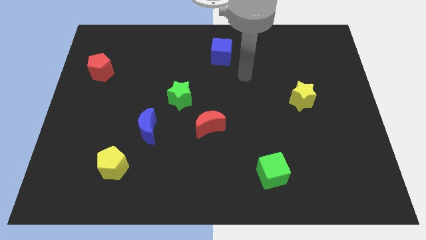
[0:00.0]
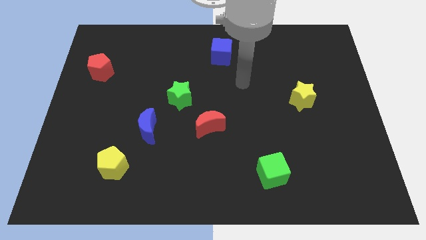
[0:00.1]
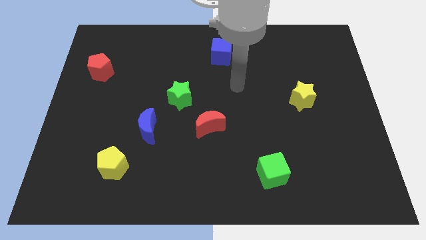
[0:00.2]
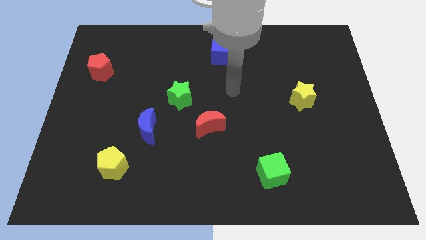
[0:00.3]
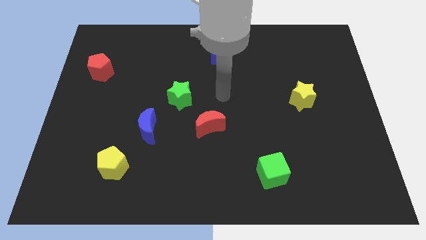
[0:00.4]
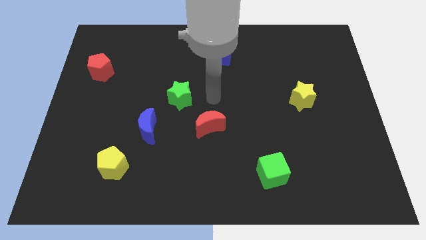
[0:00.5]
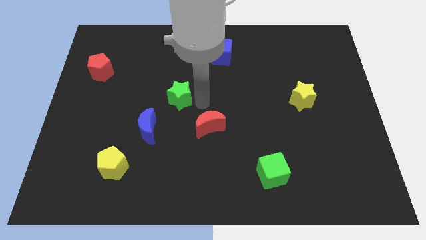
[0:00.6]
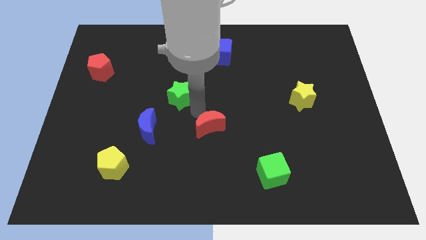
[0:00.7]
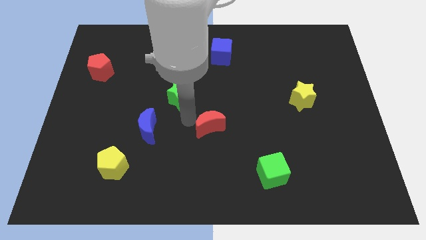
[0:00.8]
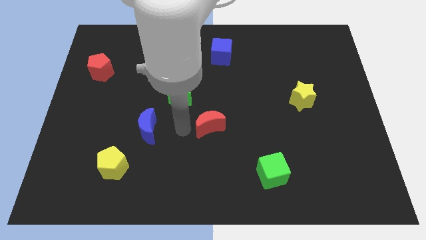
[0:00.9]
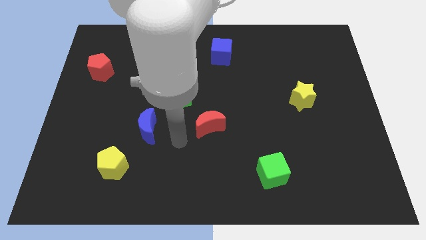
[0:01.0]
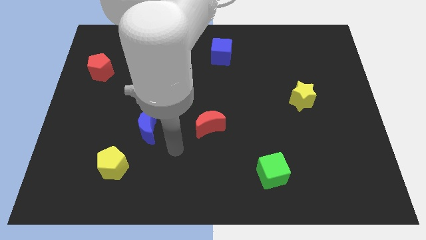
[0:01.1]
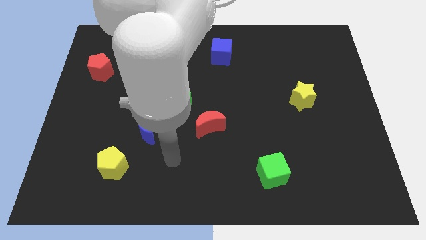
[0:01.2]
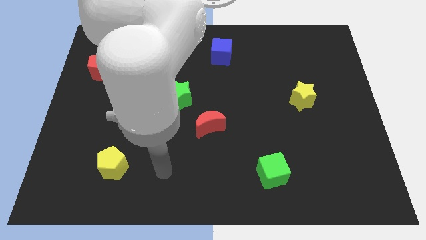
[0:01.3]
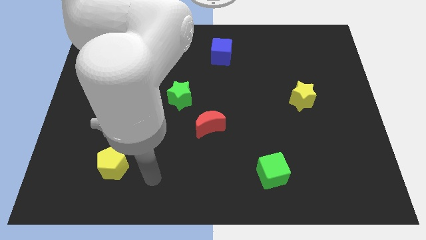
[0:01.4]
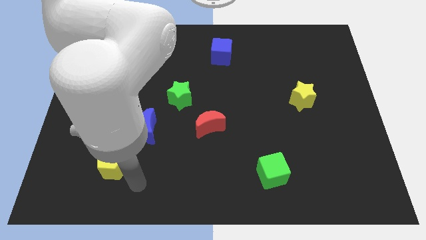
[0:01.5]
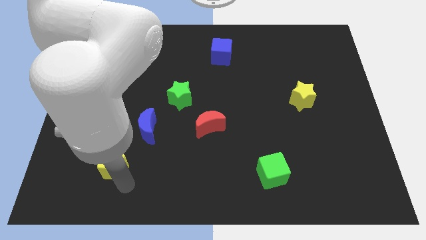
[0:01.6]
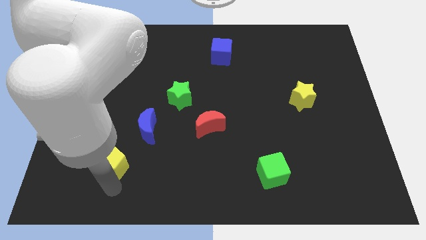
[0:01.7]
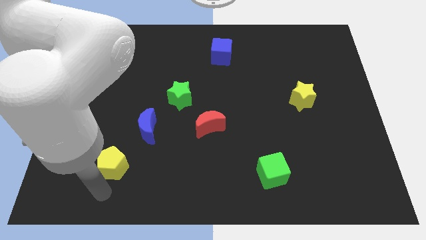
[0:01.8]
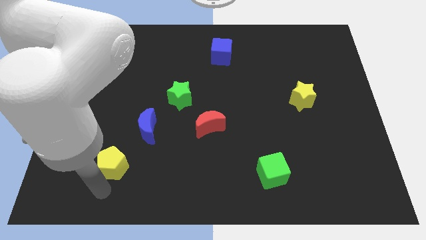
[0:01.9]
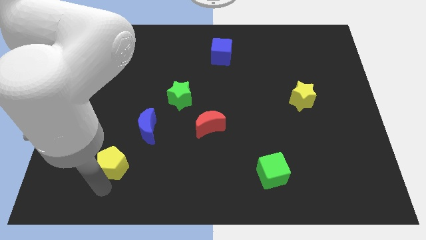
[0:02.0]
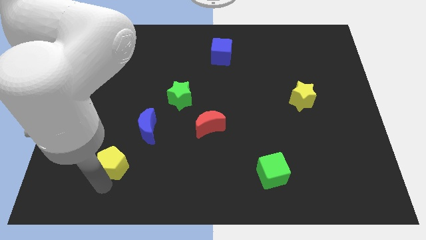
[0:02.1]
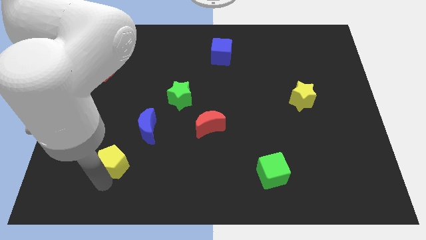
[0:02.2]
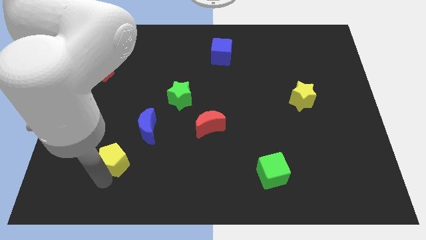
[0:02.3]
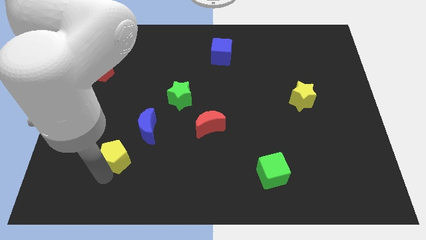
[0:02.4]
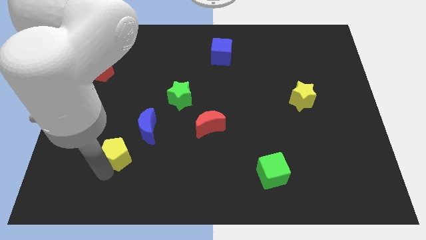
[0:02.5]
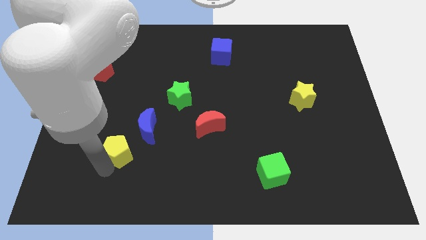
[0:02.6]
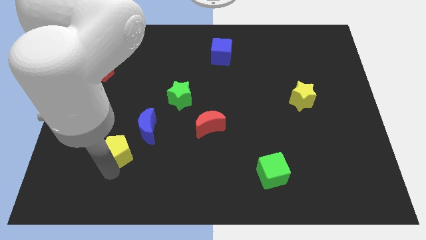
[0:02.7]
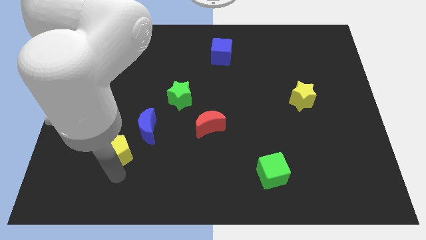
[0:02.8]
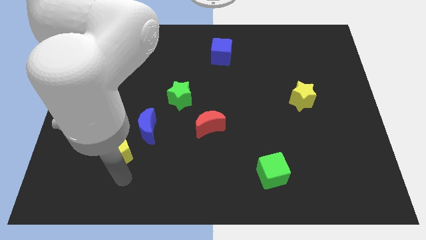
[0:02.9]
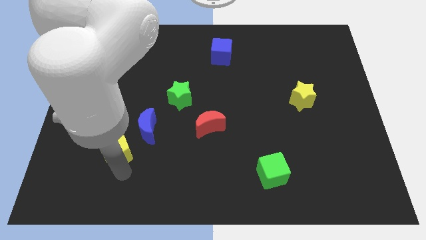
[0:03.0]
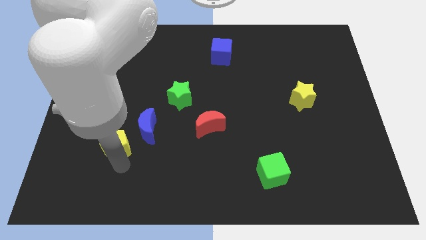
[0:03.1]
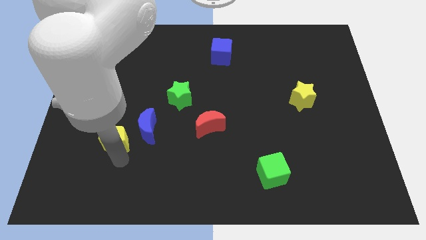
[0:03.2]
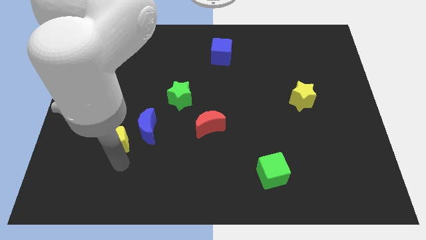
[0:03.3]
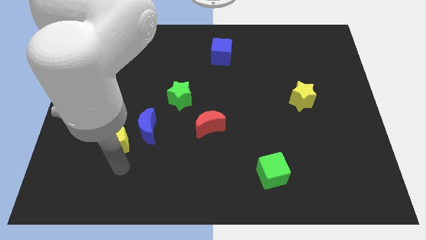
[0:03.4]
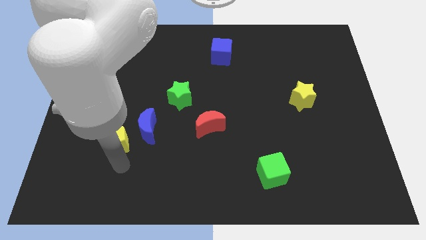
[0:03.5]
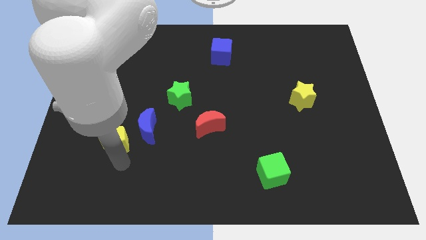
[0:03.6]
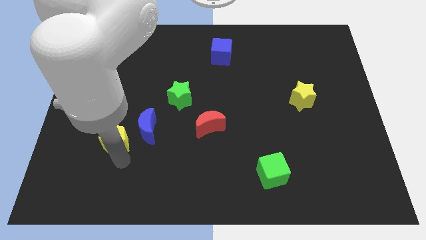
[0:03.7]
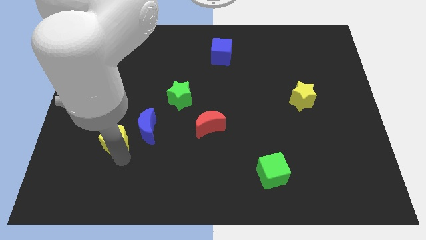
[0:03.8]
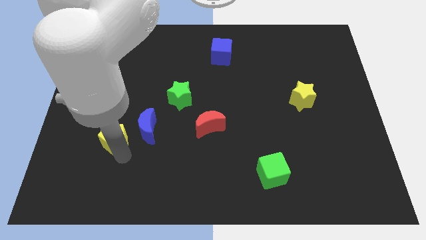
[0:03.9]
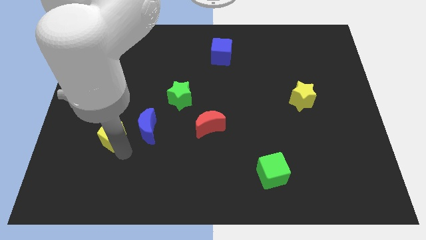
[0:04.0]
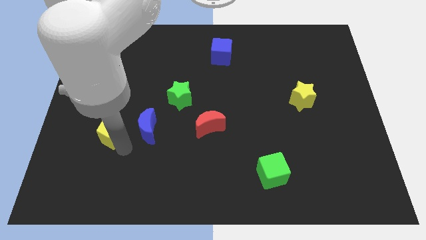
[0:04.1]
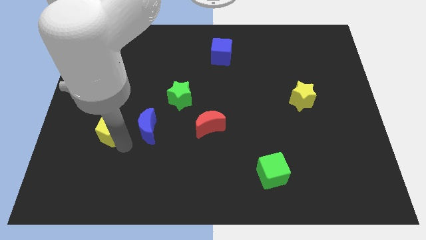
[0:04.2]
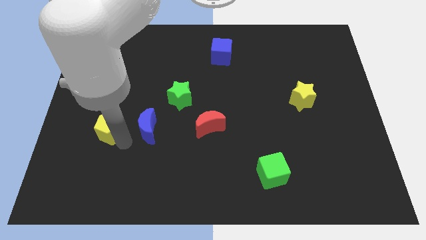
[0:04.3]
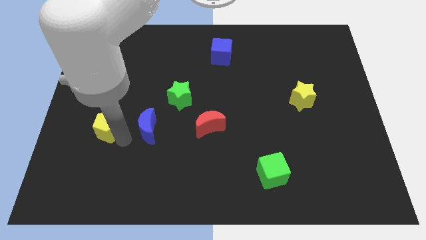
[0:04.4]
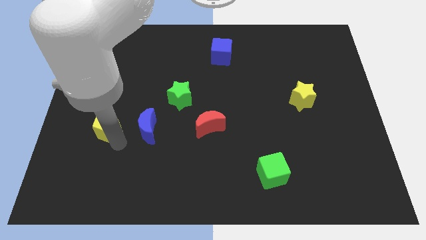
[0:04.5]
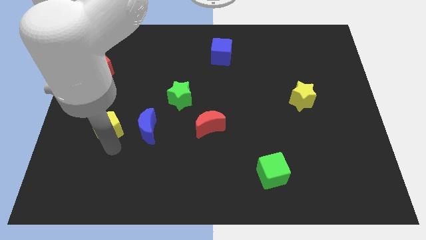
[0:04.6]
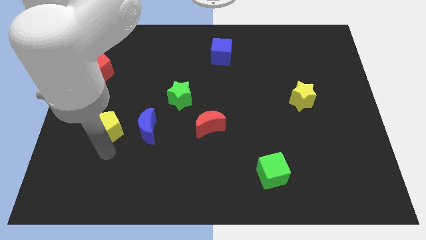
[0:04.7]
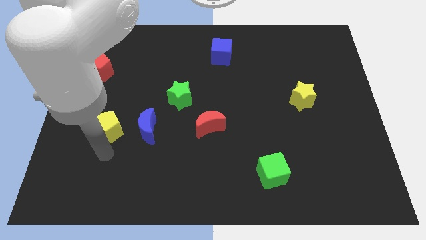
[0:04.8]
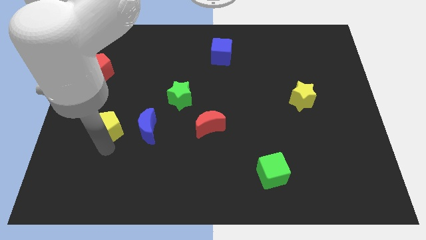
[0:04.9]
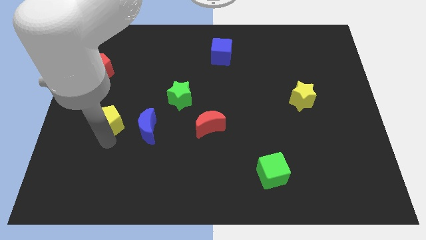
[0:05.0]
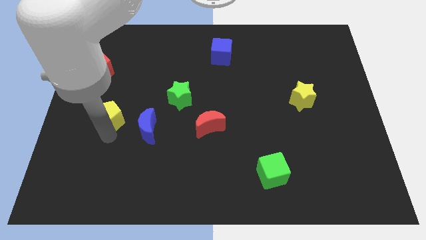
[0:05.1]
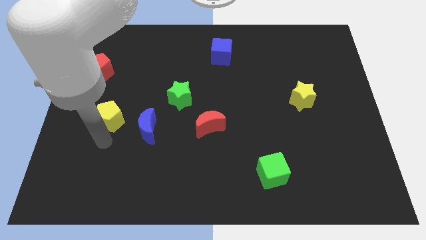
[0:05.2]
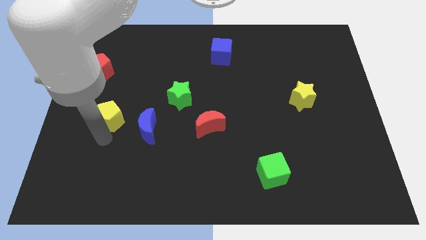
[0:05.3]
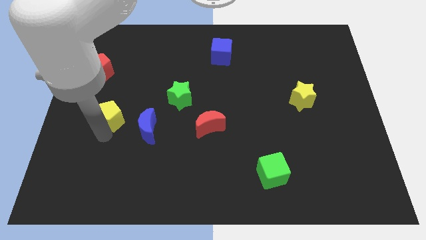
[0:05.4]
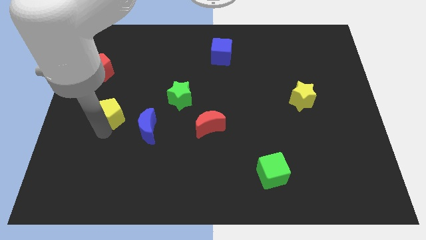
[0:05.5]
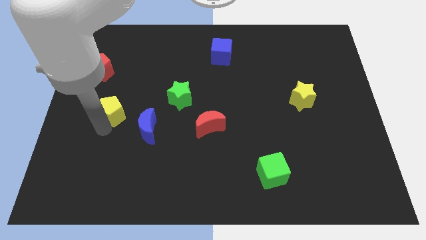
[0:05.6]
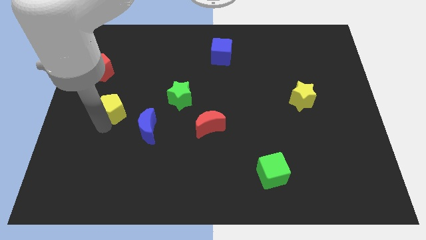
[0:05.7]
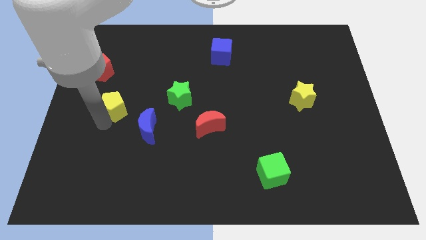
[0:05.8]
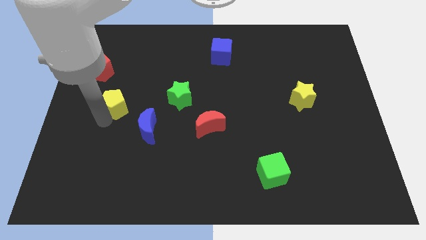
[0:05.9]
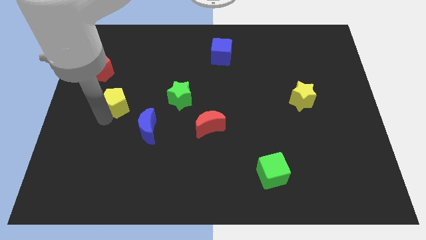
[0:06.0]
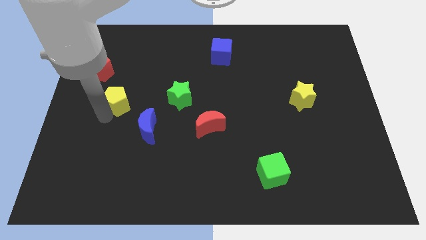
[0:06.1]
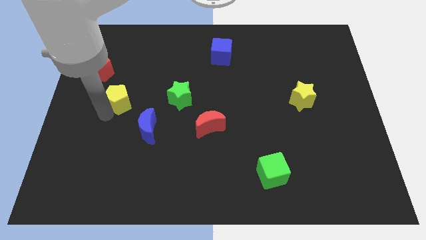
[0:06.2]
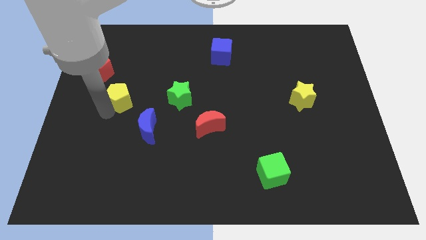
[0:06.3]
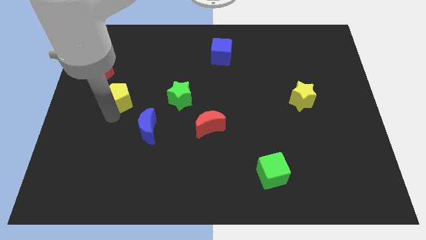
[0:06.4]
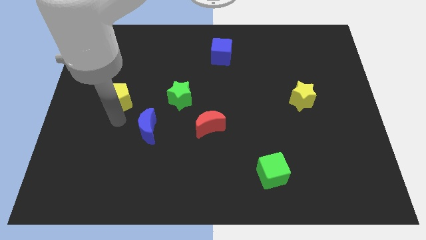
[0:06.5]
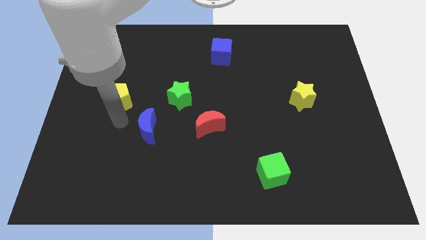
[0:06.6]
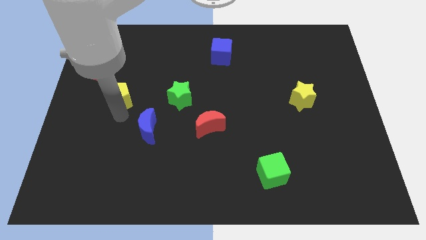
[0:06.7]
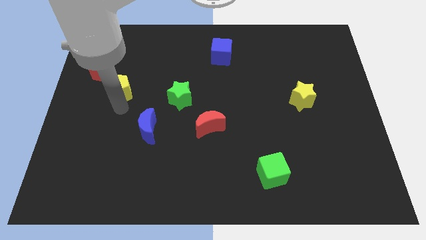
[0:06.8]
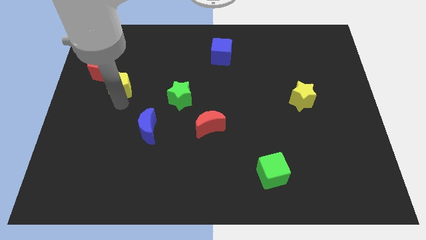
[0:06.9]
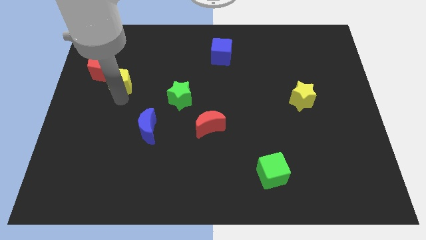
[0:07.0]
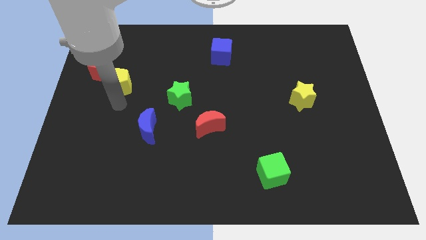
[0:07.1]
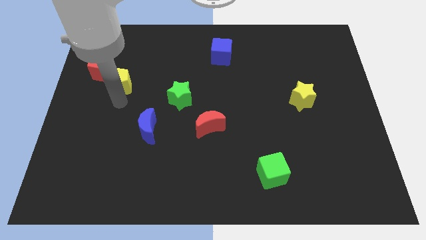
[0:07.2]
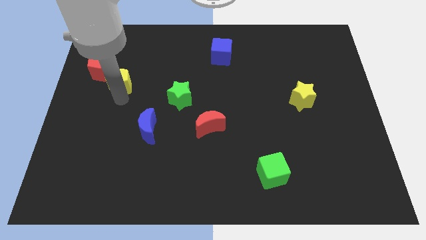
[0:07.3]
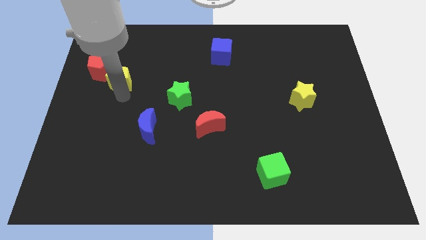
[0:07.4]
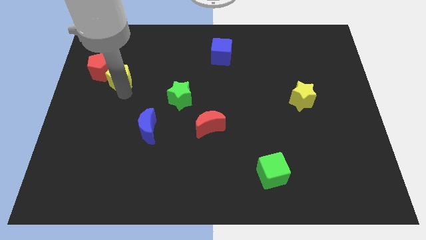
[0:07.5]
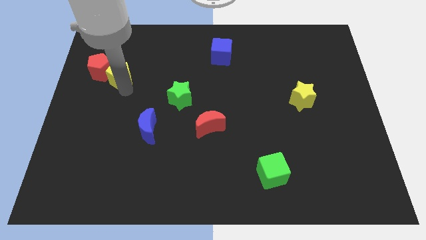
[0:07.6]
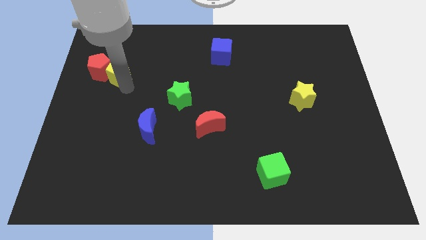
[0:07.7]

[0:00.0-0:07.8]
push the yellow pentagon to the top right side of the red pentagon
